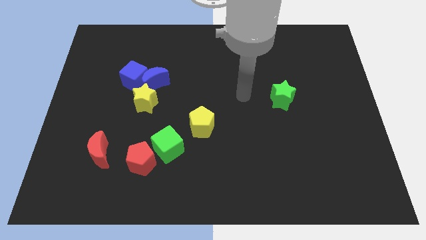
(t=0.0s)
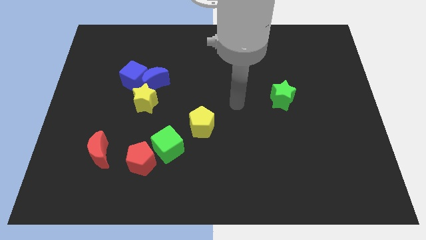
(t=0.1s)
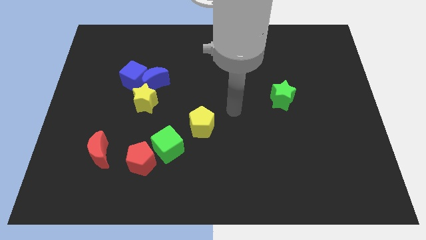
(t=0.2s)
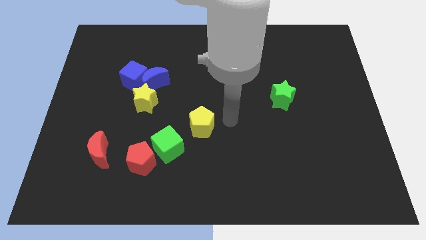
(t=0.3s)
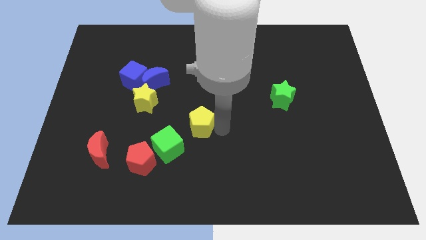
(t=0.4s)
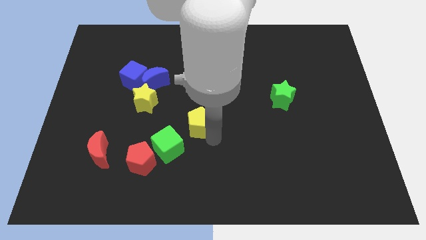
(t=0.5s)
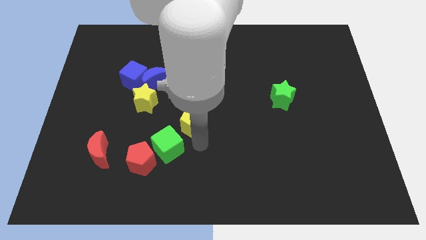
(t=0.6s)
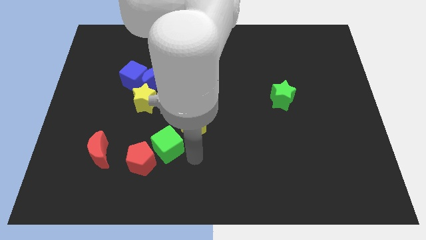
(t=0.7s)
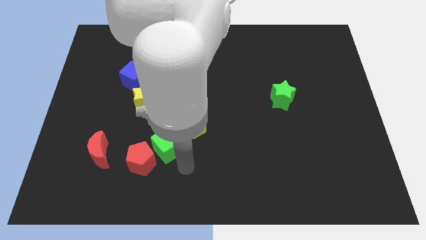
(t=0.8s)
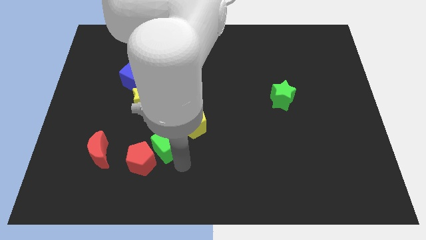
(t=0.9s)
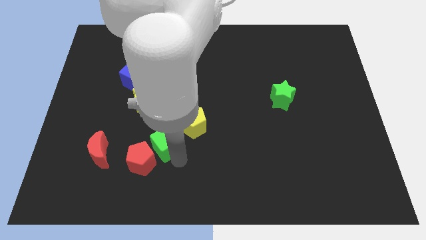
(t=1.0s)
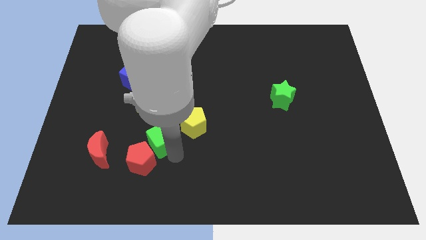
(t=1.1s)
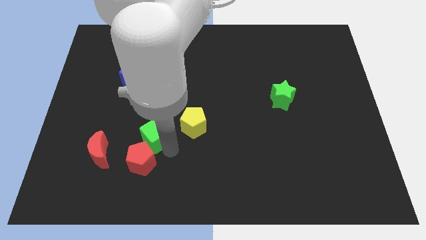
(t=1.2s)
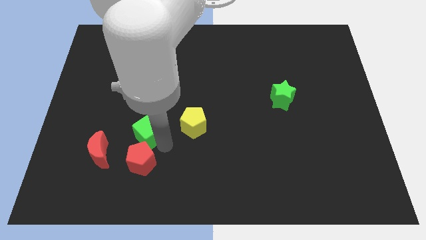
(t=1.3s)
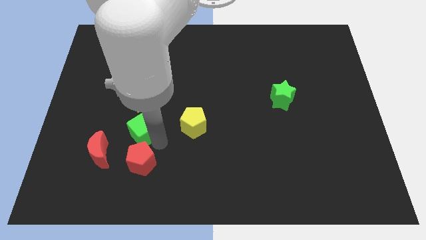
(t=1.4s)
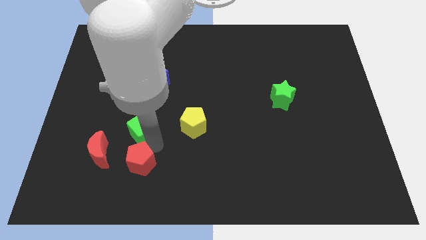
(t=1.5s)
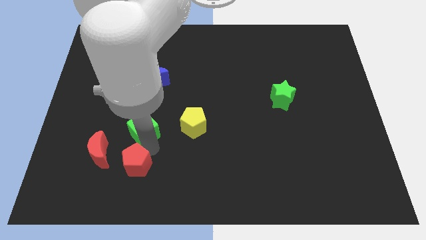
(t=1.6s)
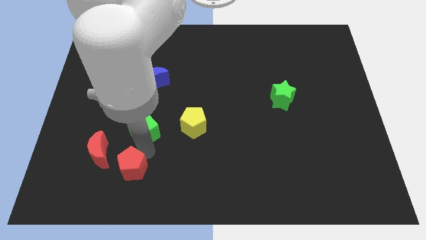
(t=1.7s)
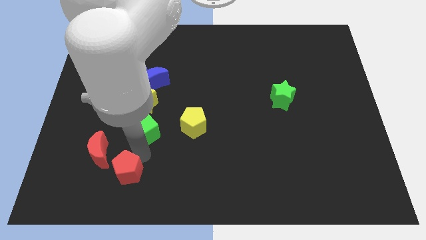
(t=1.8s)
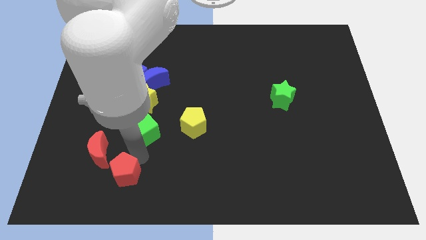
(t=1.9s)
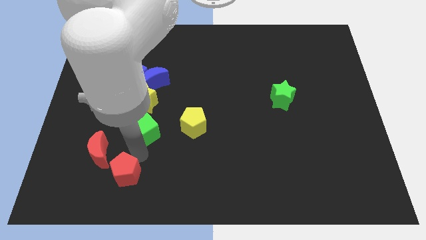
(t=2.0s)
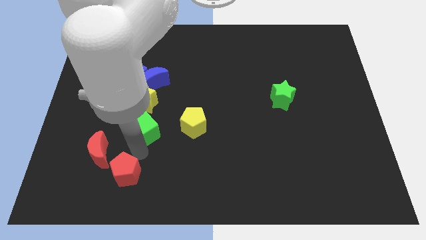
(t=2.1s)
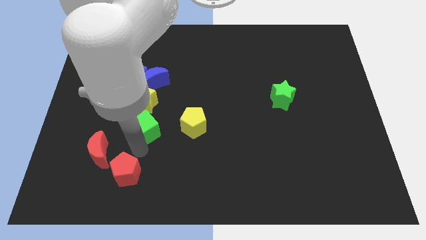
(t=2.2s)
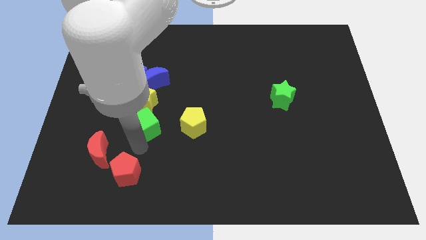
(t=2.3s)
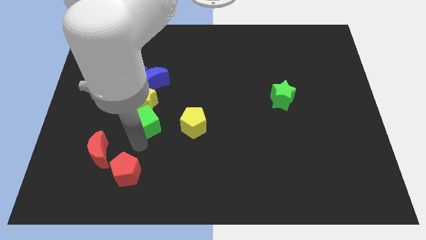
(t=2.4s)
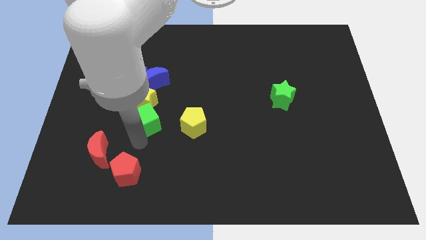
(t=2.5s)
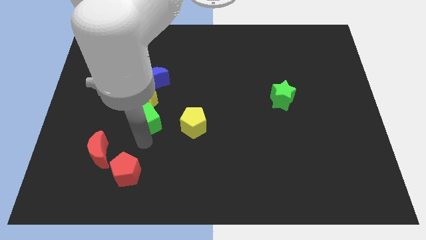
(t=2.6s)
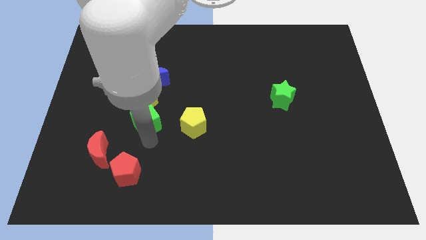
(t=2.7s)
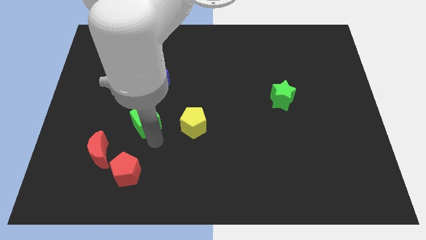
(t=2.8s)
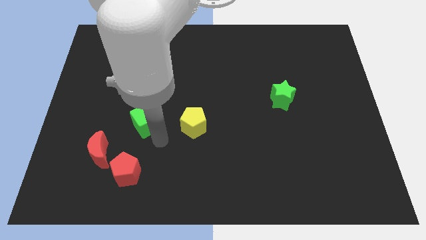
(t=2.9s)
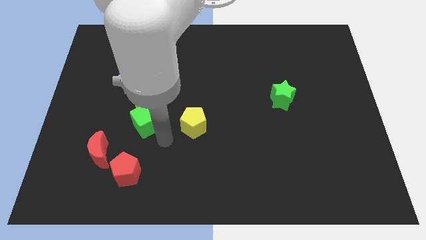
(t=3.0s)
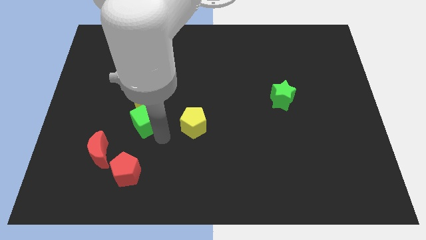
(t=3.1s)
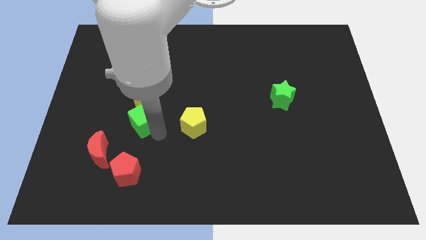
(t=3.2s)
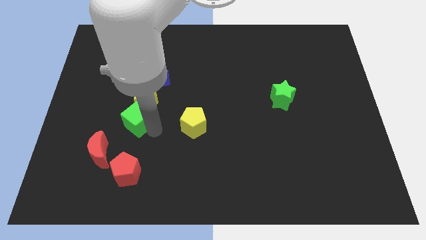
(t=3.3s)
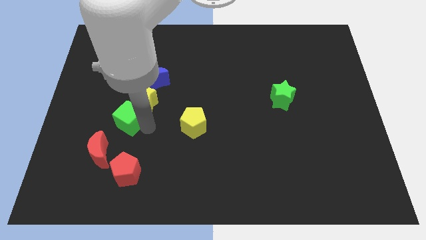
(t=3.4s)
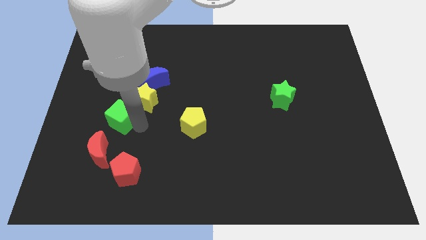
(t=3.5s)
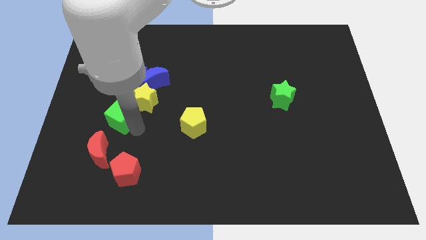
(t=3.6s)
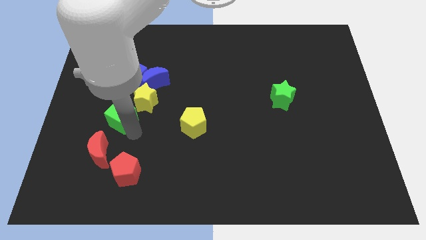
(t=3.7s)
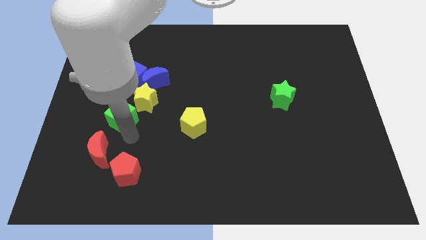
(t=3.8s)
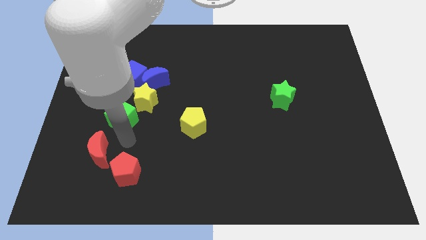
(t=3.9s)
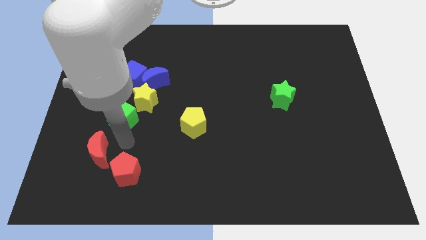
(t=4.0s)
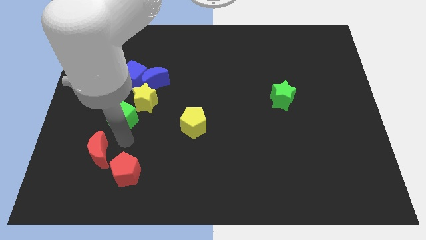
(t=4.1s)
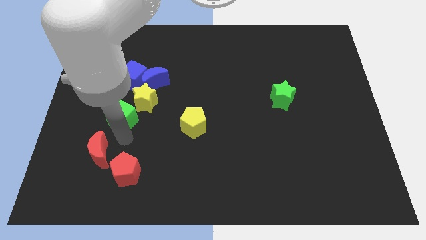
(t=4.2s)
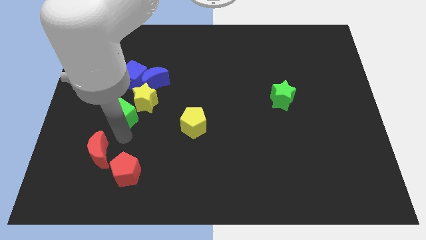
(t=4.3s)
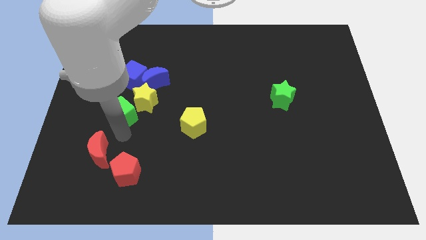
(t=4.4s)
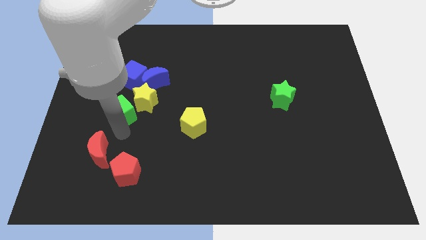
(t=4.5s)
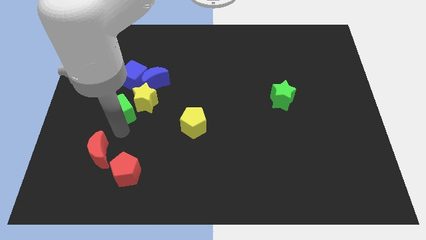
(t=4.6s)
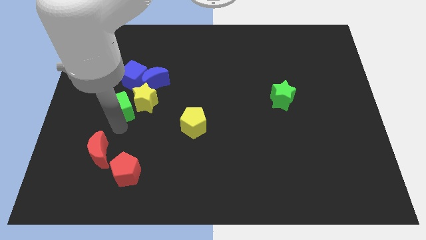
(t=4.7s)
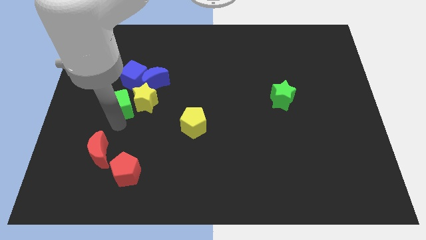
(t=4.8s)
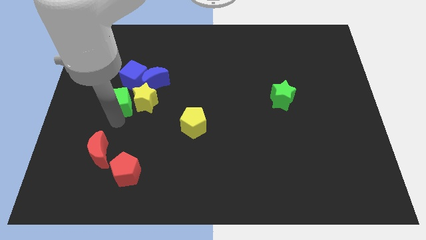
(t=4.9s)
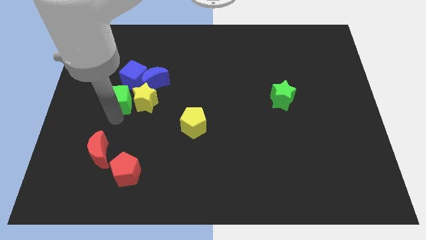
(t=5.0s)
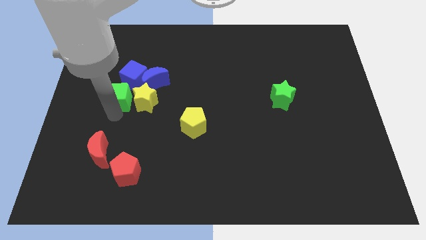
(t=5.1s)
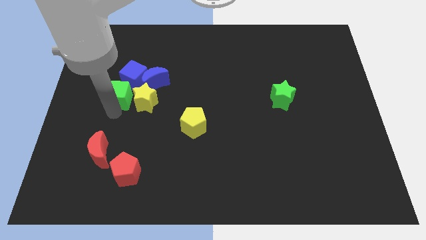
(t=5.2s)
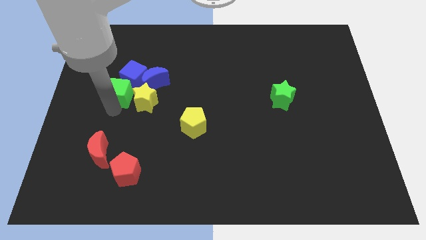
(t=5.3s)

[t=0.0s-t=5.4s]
push the green cube close to the blue cube

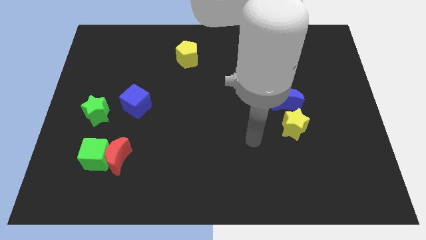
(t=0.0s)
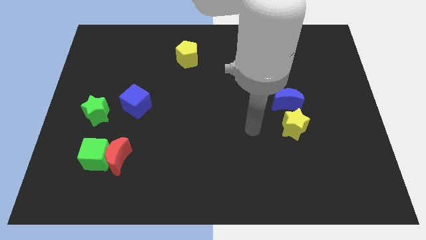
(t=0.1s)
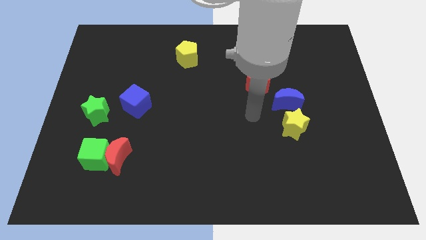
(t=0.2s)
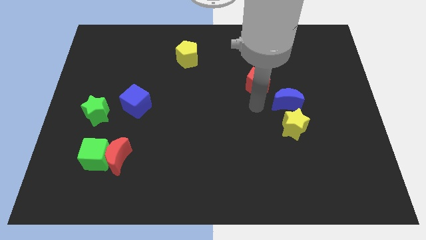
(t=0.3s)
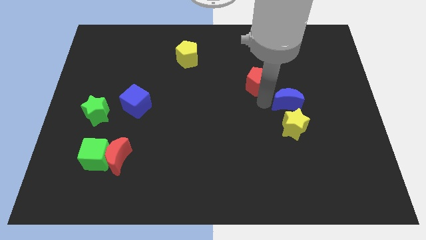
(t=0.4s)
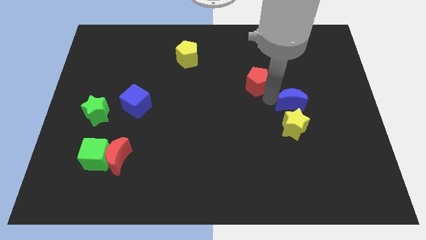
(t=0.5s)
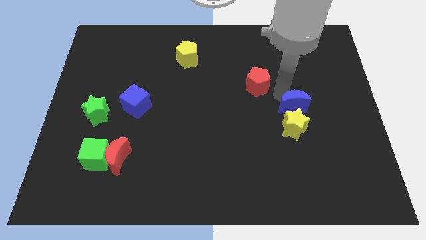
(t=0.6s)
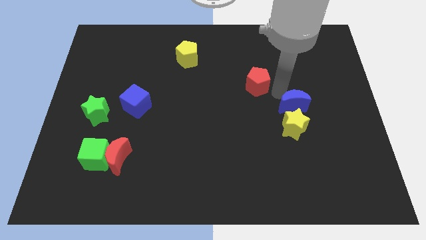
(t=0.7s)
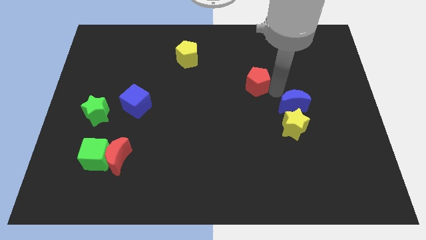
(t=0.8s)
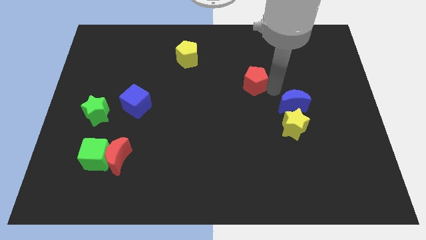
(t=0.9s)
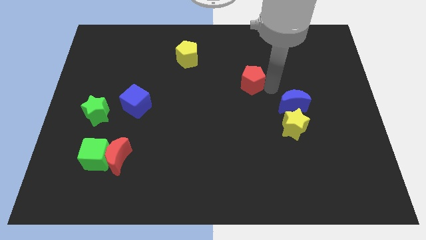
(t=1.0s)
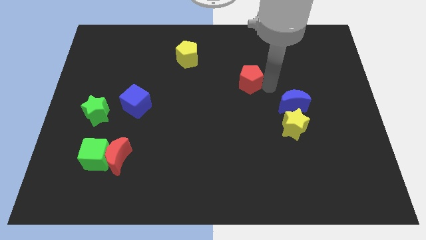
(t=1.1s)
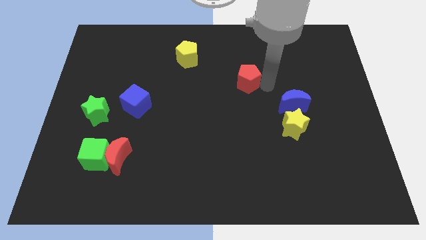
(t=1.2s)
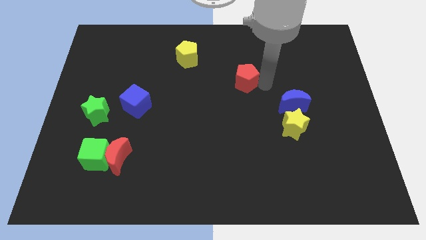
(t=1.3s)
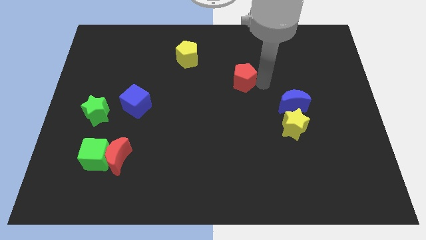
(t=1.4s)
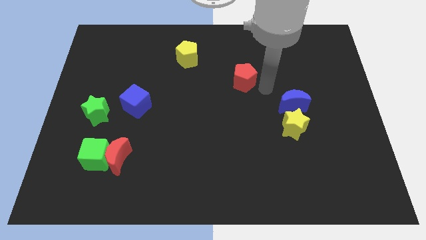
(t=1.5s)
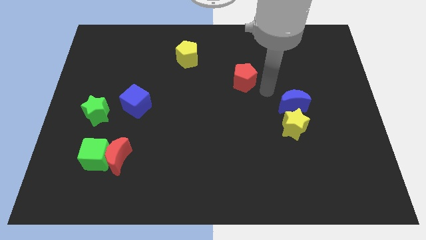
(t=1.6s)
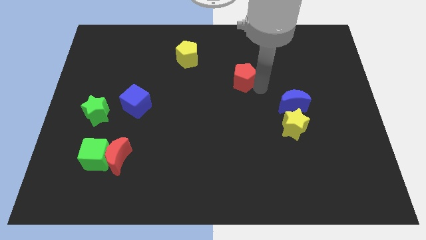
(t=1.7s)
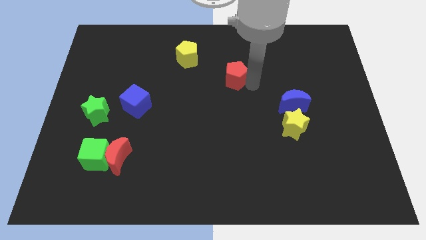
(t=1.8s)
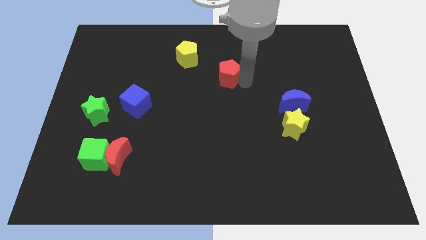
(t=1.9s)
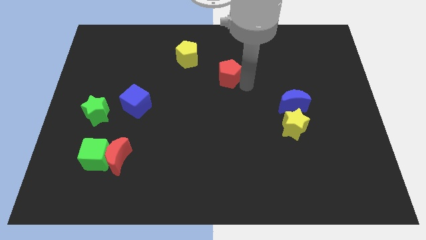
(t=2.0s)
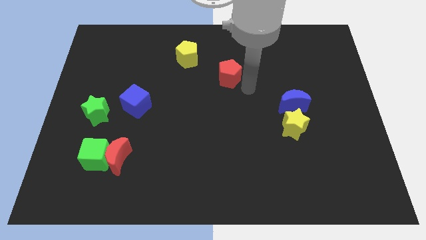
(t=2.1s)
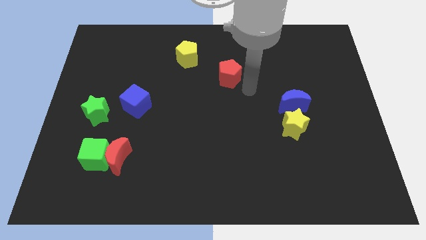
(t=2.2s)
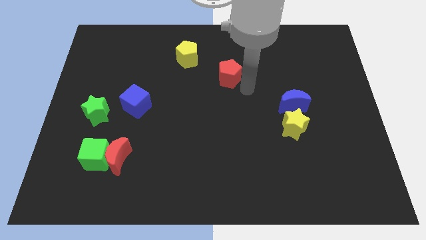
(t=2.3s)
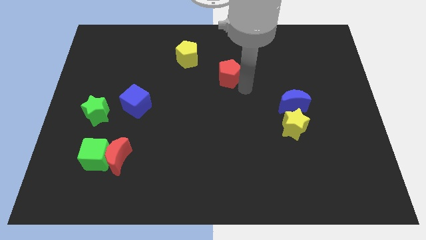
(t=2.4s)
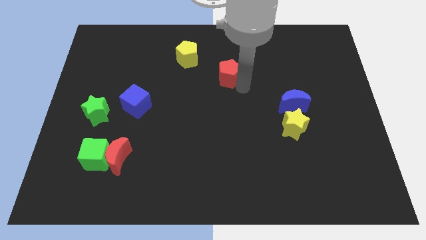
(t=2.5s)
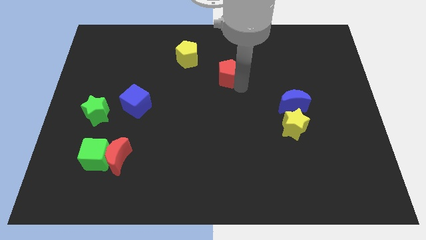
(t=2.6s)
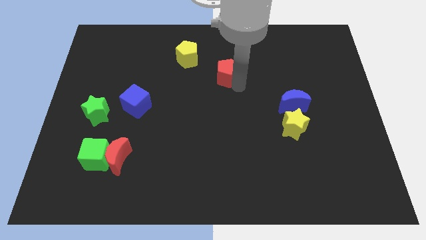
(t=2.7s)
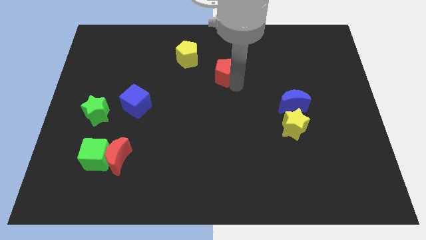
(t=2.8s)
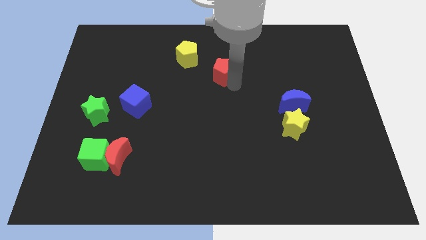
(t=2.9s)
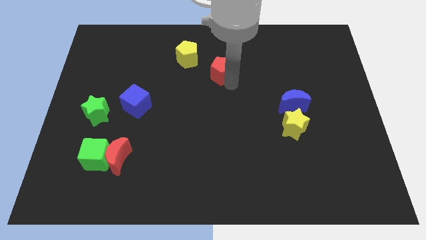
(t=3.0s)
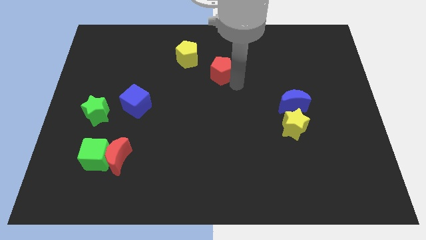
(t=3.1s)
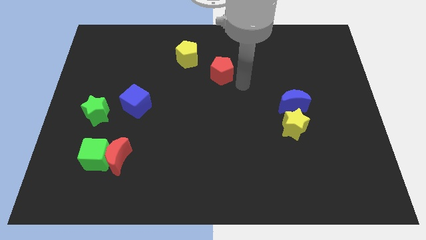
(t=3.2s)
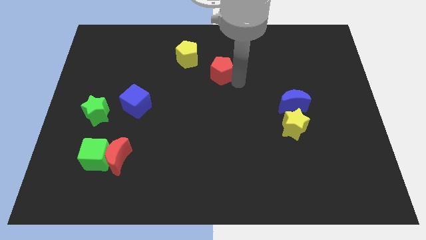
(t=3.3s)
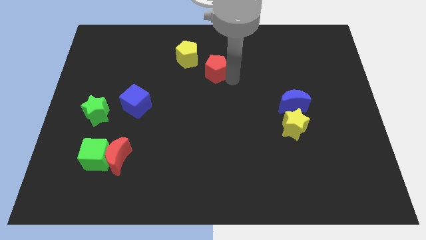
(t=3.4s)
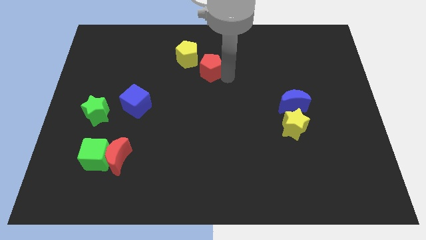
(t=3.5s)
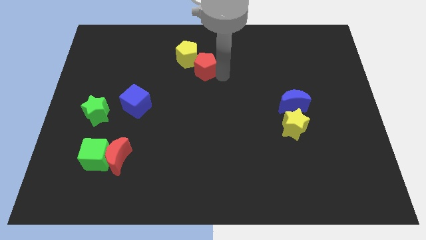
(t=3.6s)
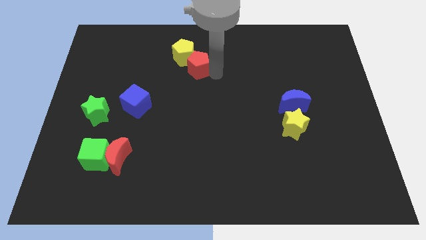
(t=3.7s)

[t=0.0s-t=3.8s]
move the red pentagon close to the yellow pentagon
